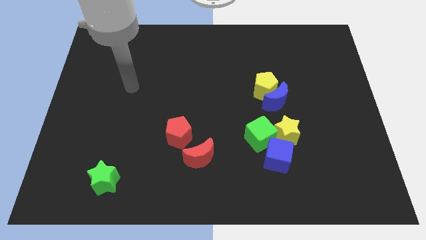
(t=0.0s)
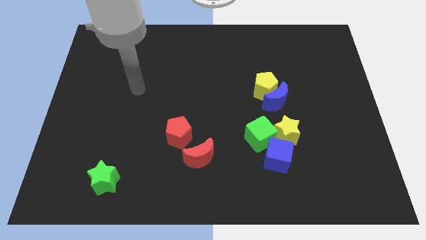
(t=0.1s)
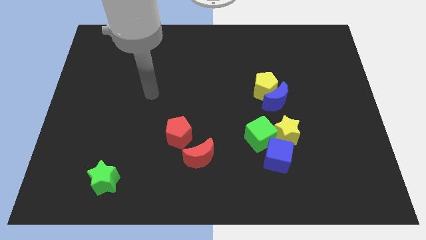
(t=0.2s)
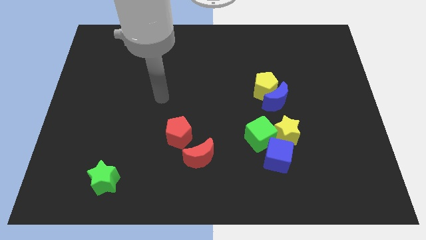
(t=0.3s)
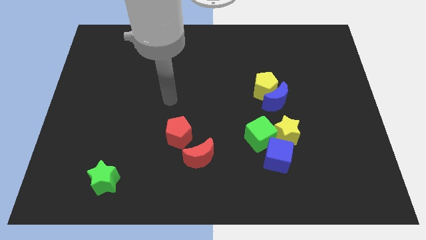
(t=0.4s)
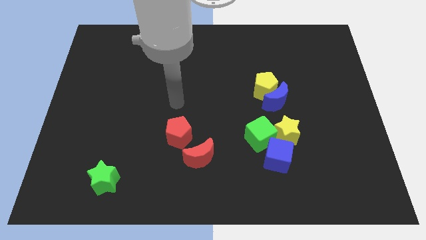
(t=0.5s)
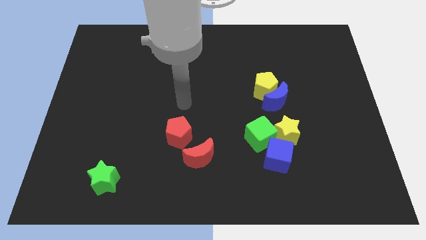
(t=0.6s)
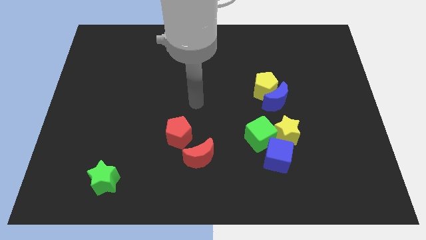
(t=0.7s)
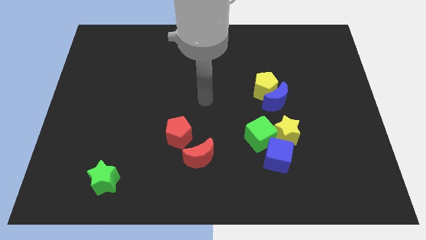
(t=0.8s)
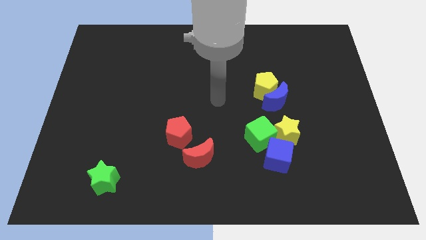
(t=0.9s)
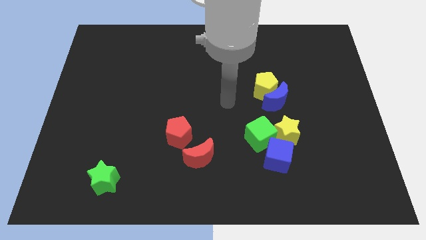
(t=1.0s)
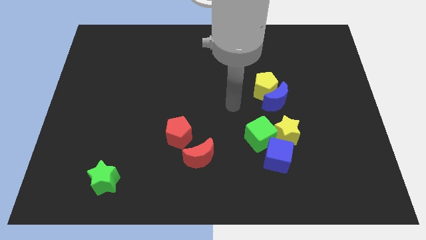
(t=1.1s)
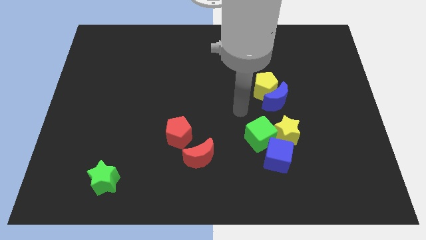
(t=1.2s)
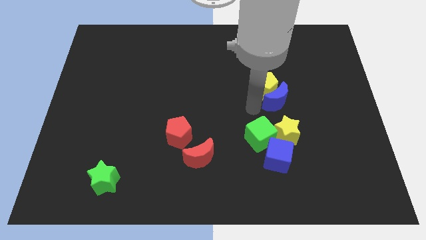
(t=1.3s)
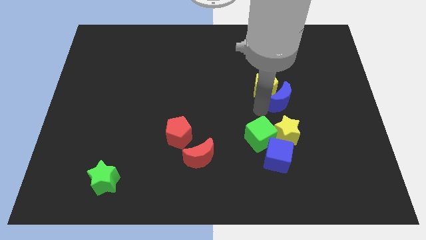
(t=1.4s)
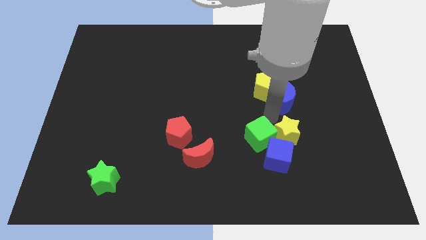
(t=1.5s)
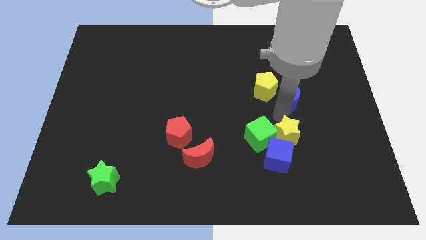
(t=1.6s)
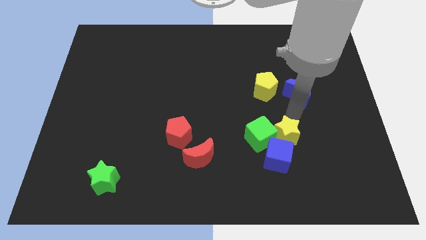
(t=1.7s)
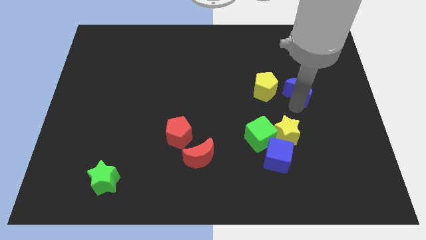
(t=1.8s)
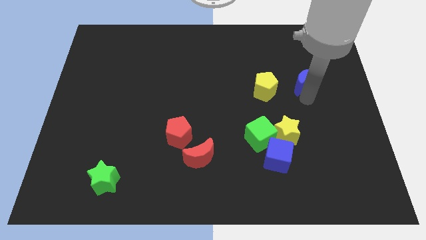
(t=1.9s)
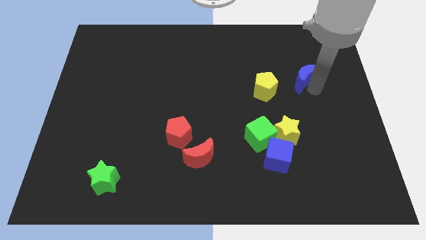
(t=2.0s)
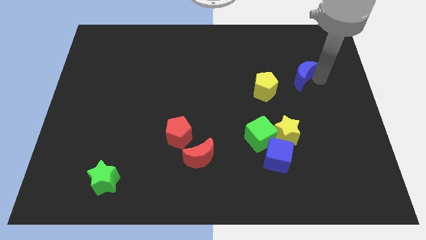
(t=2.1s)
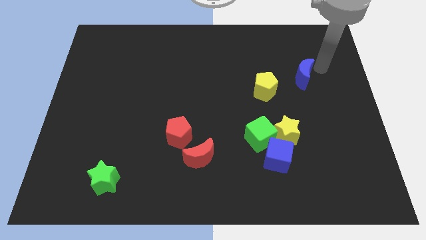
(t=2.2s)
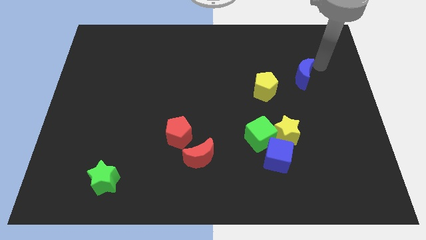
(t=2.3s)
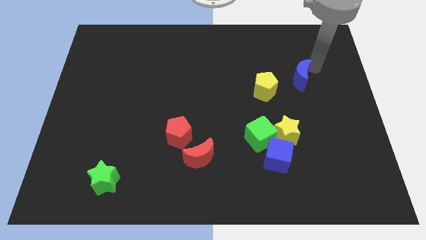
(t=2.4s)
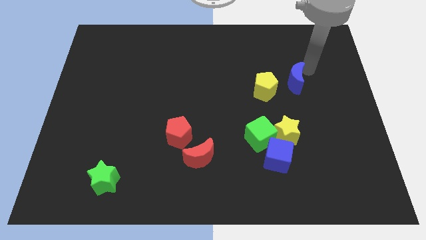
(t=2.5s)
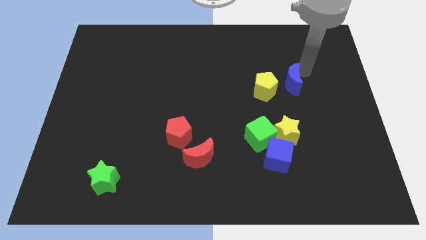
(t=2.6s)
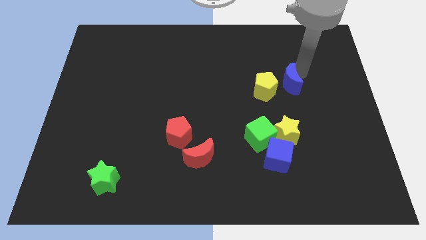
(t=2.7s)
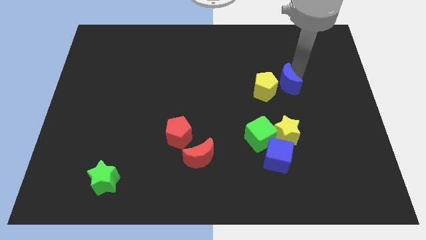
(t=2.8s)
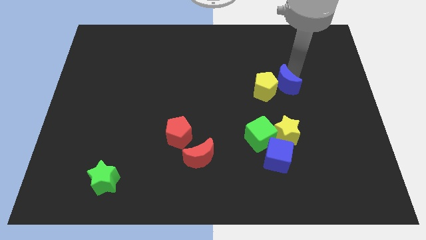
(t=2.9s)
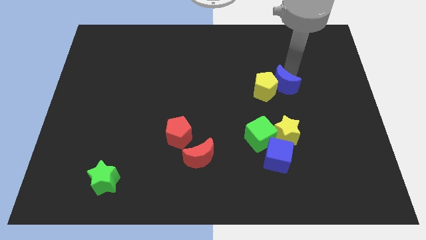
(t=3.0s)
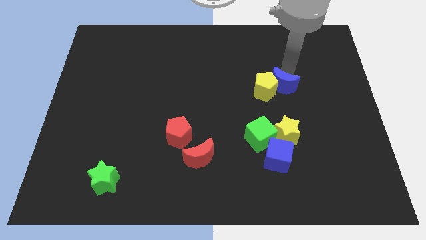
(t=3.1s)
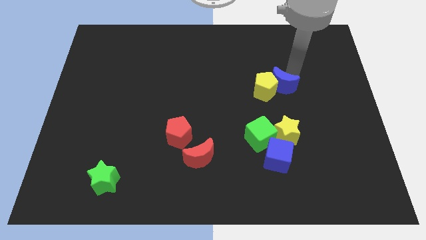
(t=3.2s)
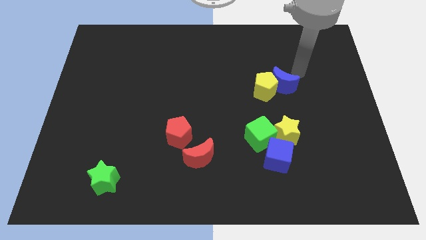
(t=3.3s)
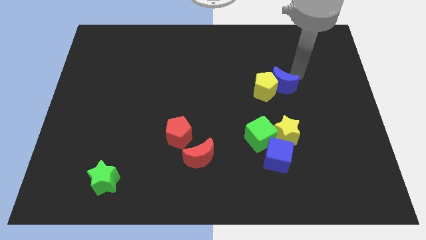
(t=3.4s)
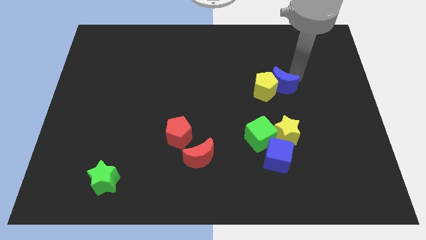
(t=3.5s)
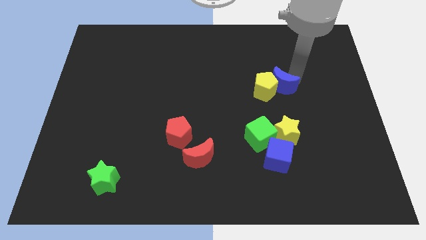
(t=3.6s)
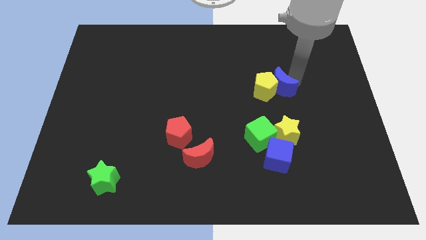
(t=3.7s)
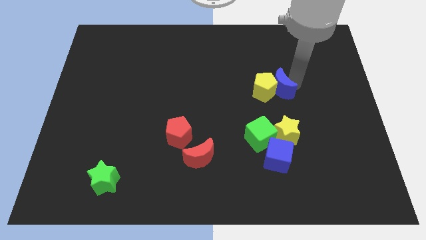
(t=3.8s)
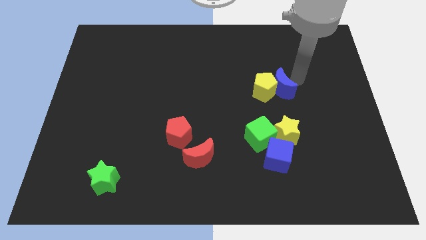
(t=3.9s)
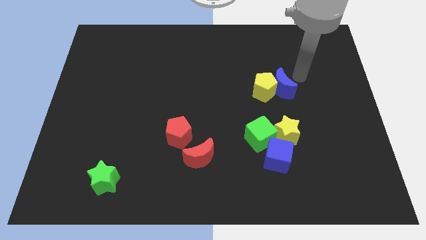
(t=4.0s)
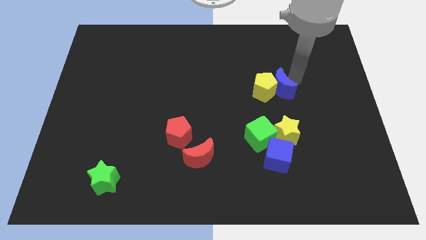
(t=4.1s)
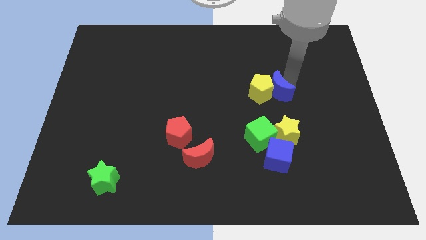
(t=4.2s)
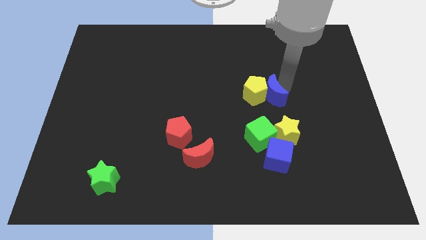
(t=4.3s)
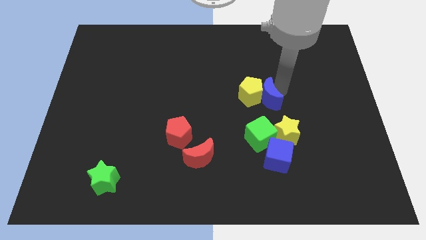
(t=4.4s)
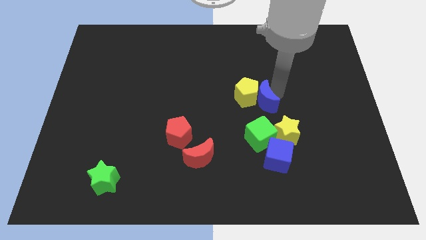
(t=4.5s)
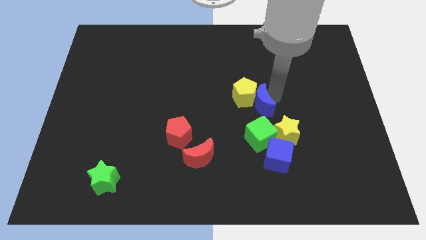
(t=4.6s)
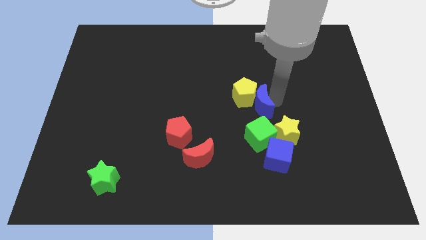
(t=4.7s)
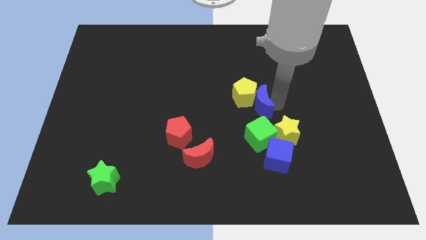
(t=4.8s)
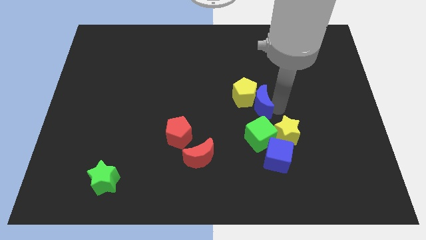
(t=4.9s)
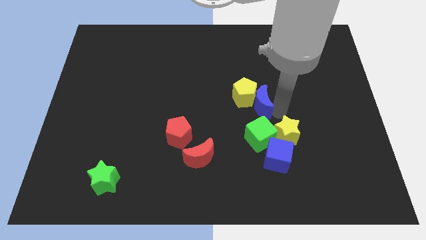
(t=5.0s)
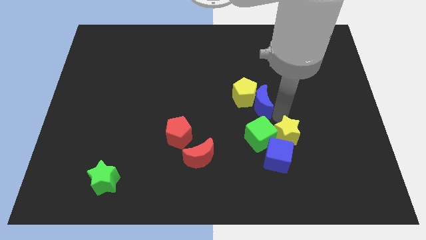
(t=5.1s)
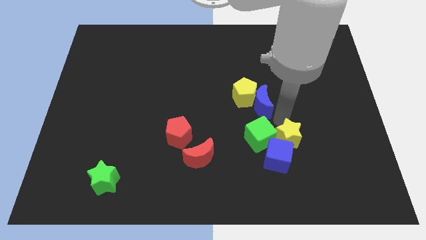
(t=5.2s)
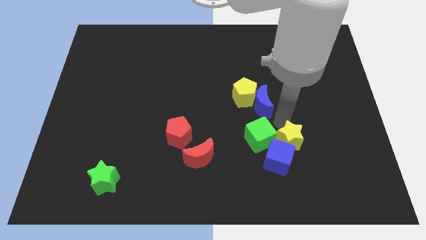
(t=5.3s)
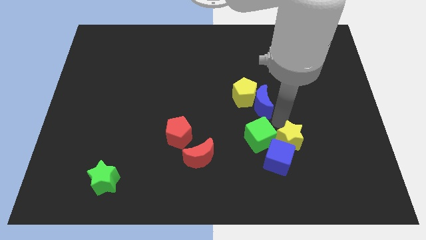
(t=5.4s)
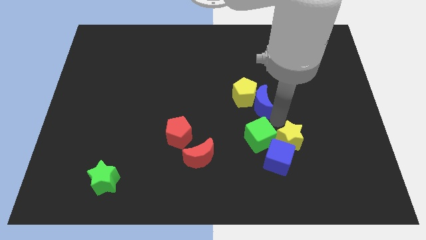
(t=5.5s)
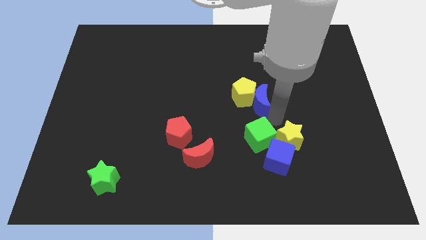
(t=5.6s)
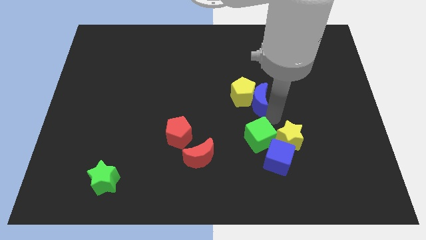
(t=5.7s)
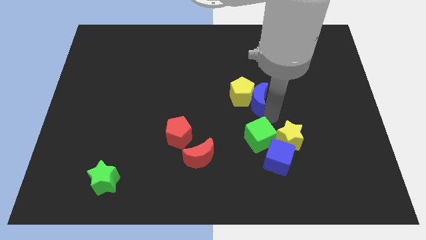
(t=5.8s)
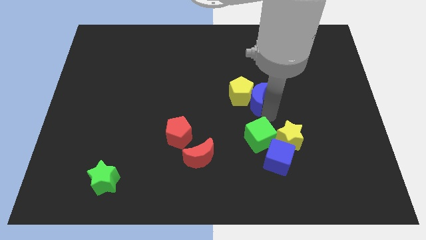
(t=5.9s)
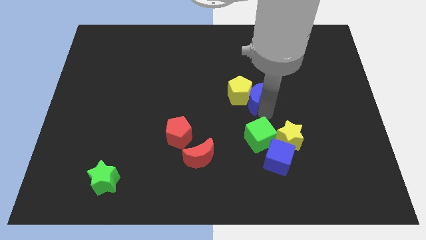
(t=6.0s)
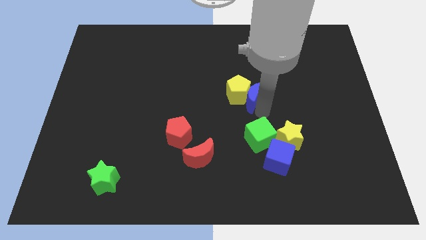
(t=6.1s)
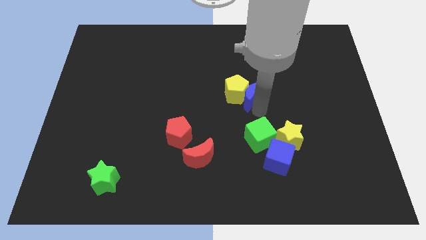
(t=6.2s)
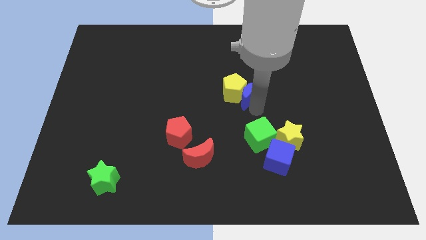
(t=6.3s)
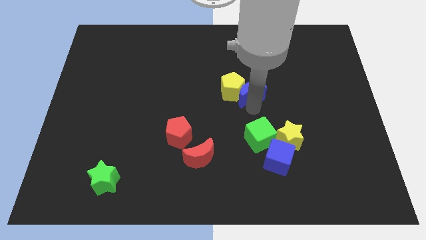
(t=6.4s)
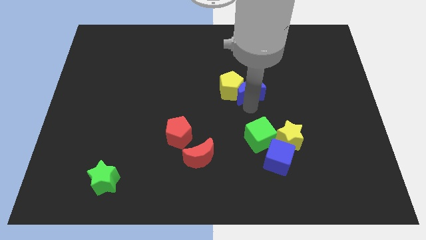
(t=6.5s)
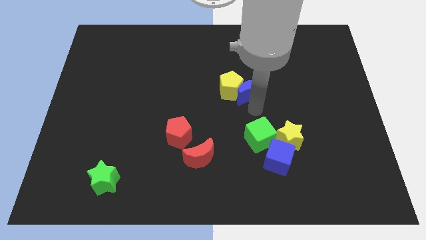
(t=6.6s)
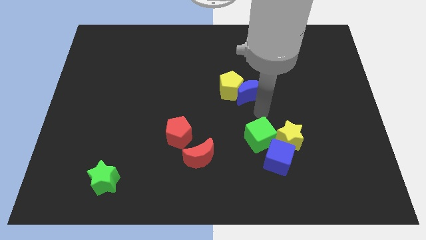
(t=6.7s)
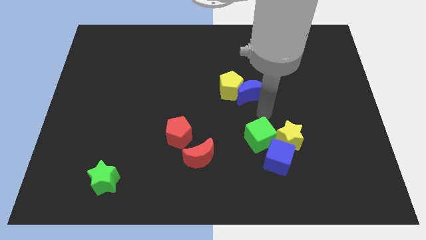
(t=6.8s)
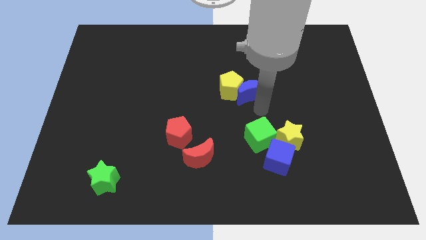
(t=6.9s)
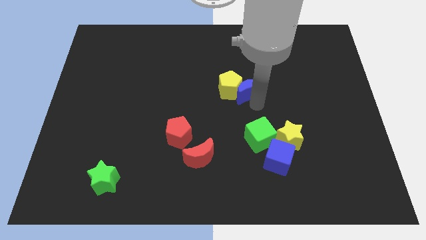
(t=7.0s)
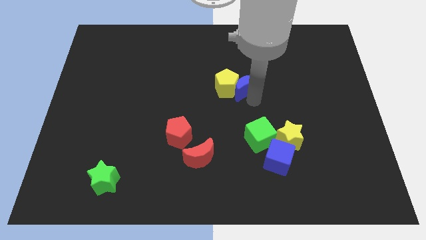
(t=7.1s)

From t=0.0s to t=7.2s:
slightly slide the blue moon up and then left

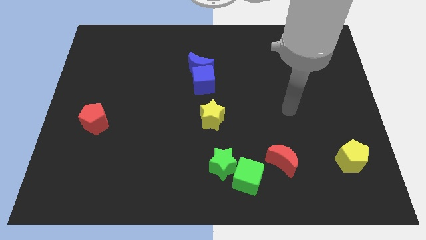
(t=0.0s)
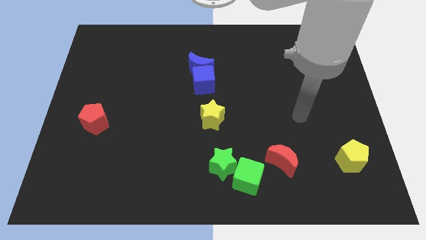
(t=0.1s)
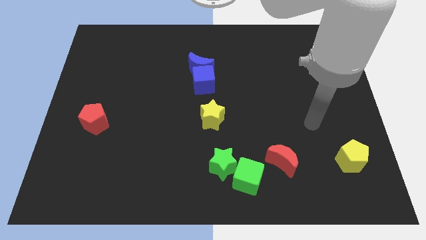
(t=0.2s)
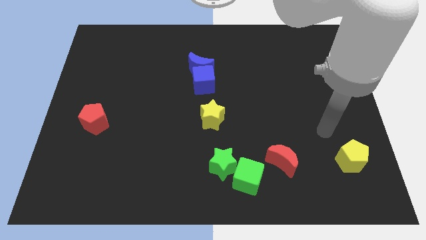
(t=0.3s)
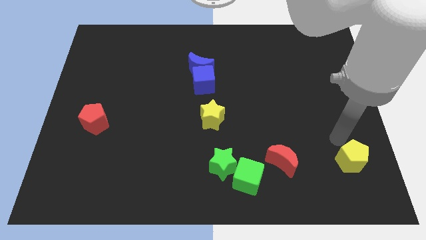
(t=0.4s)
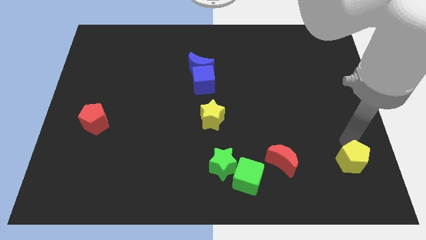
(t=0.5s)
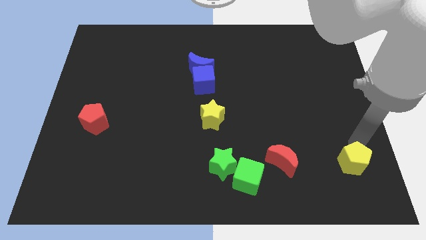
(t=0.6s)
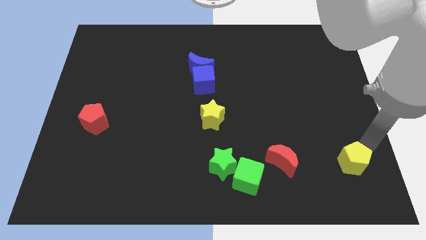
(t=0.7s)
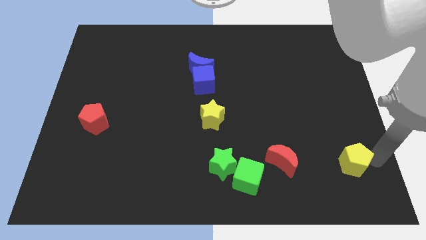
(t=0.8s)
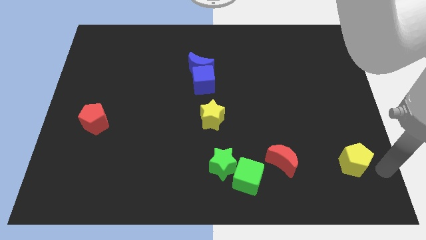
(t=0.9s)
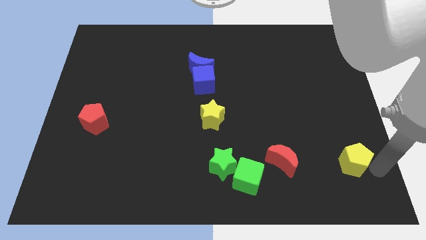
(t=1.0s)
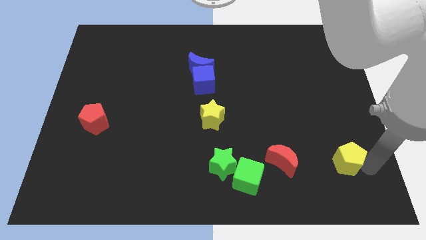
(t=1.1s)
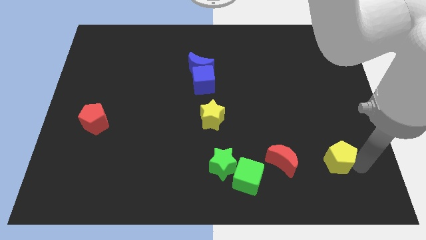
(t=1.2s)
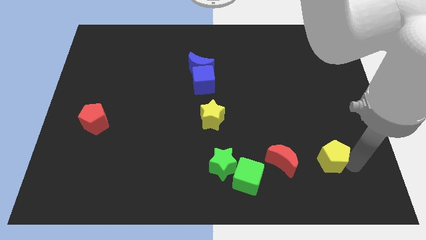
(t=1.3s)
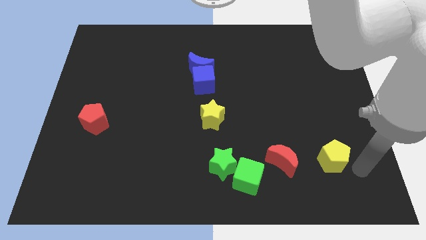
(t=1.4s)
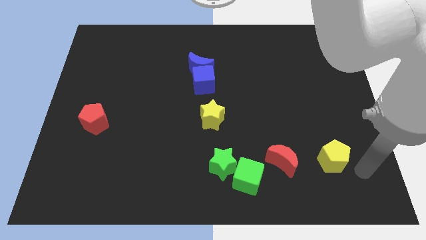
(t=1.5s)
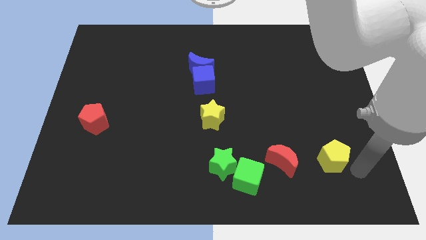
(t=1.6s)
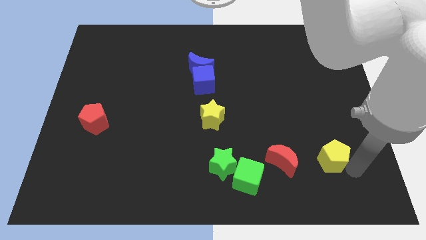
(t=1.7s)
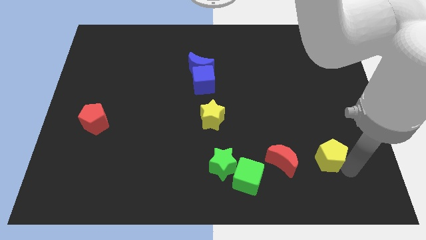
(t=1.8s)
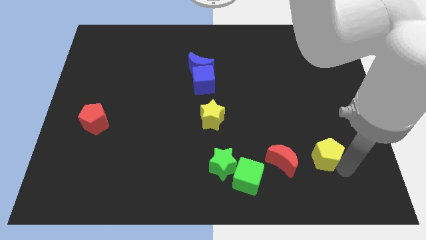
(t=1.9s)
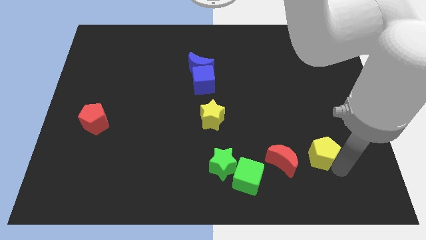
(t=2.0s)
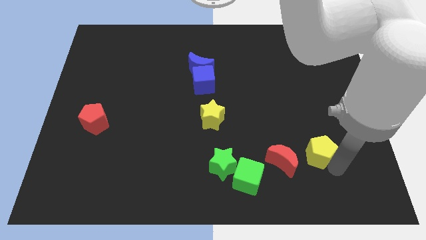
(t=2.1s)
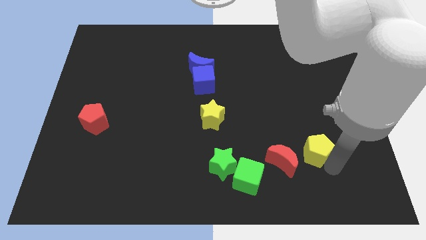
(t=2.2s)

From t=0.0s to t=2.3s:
slide the yellow pentagon to the left somewhat
